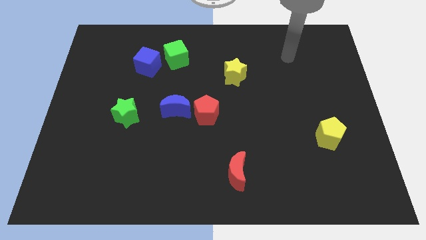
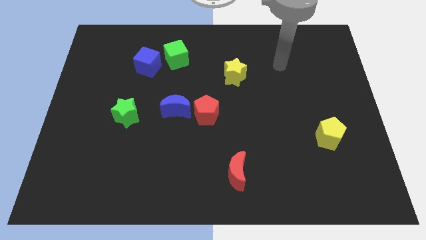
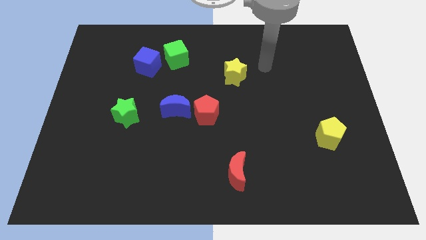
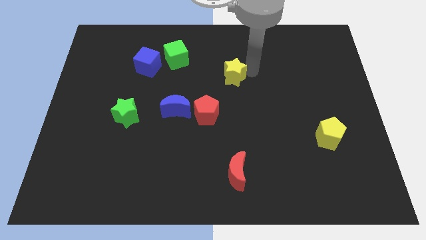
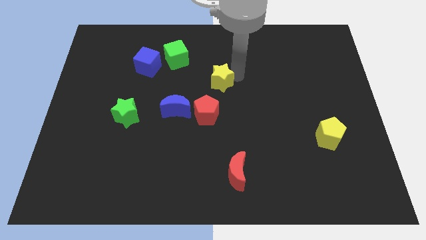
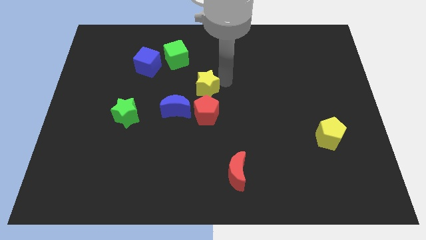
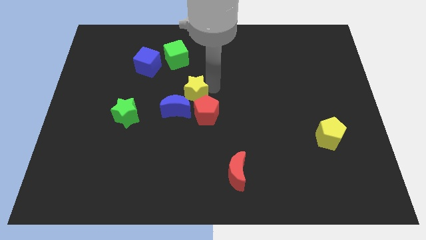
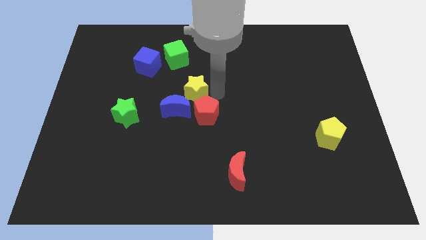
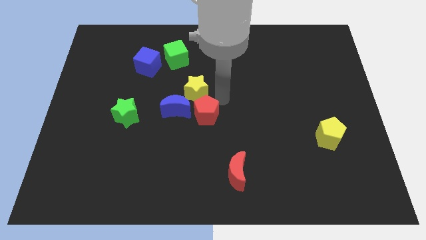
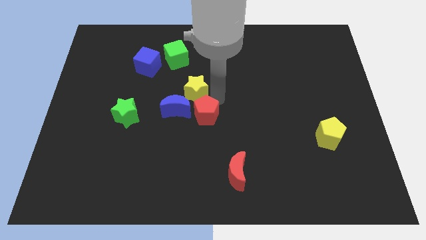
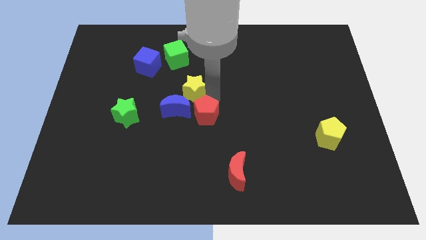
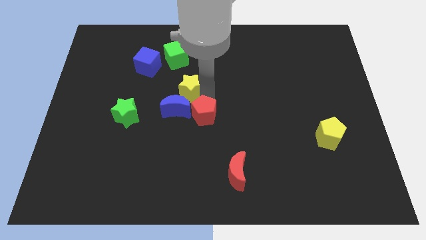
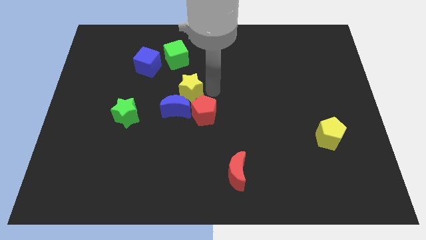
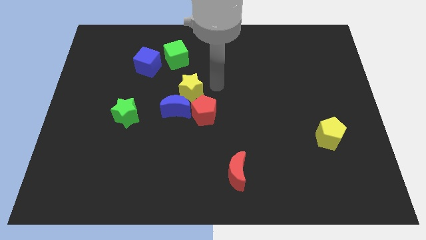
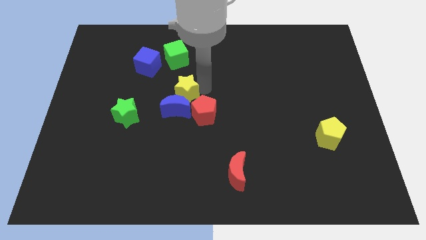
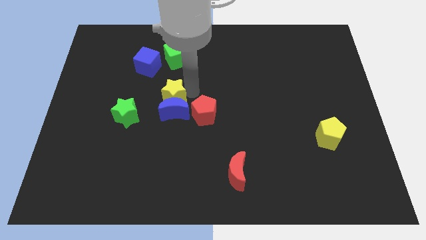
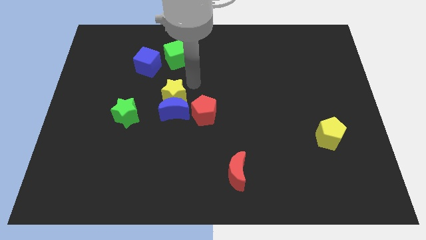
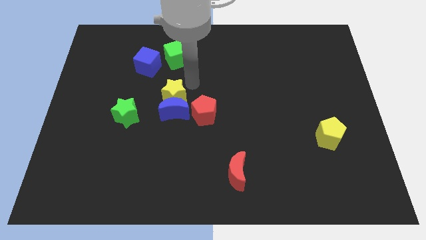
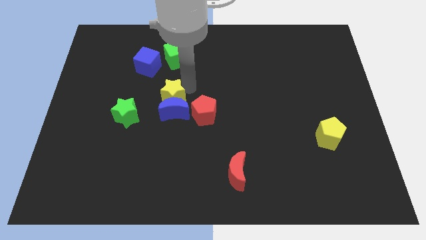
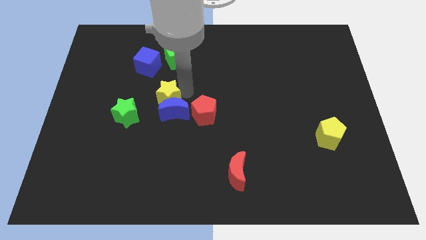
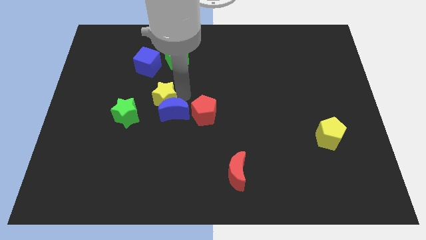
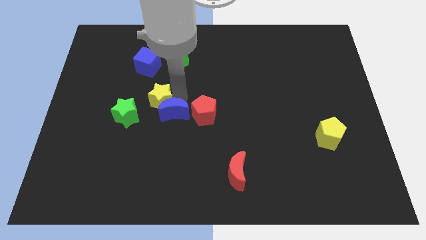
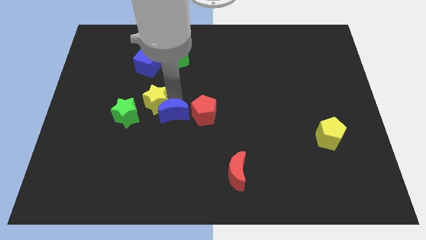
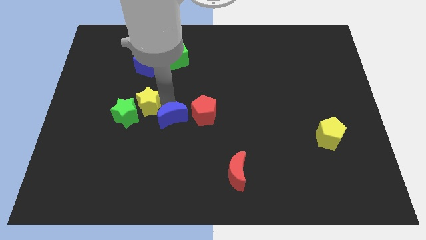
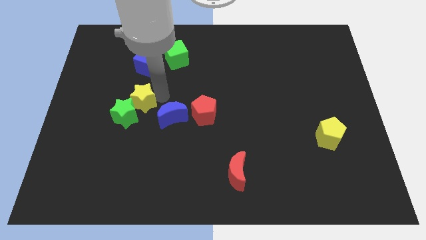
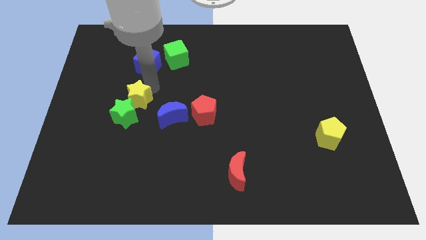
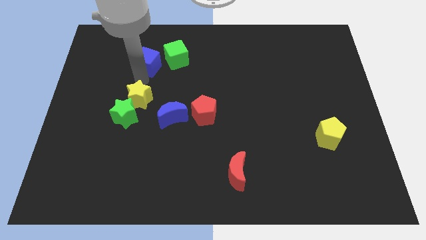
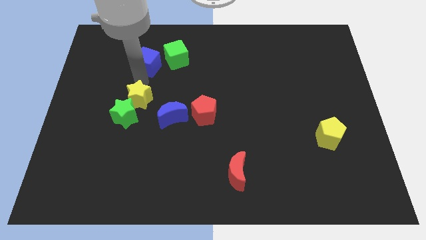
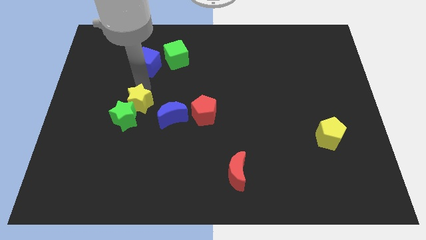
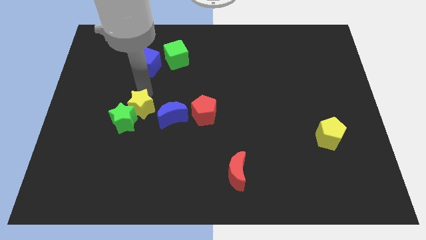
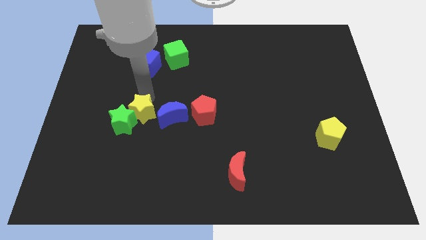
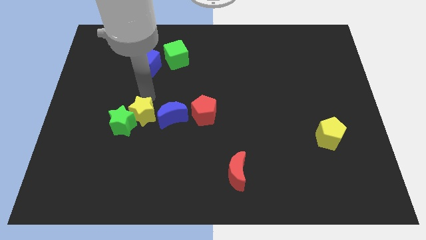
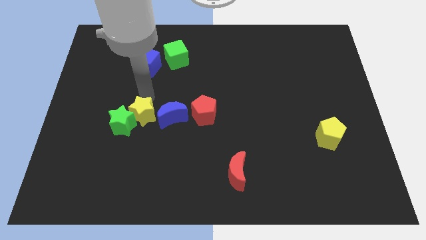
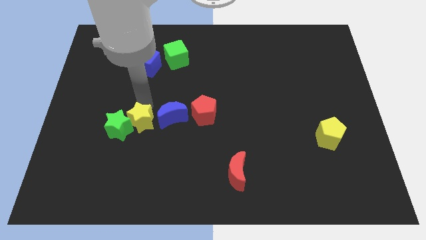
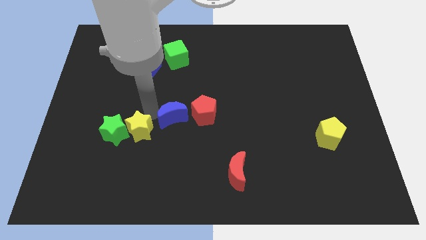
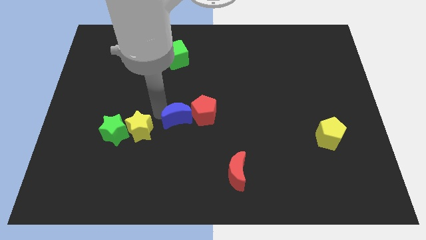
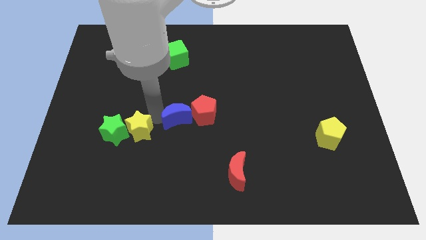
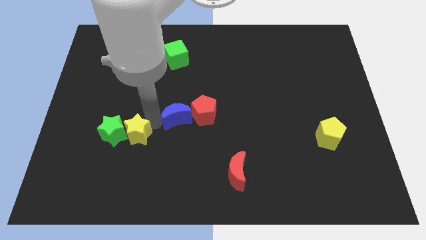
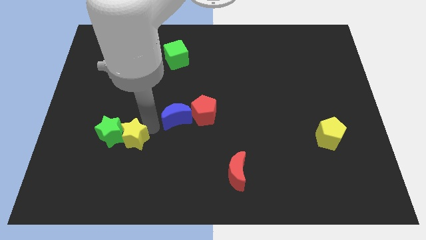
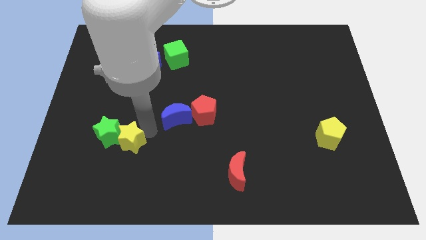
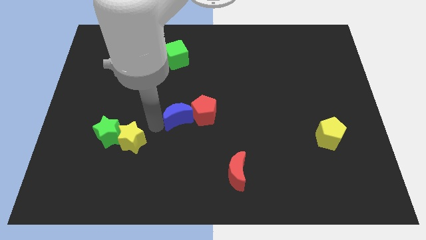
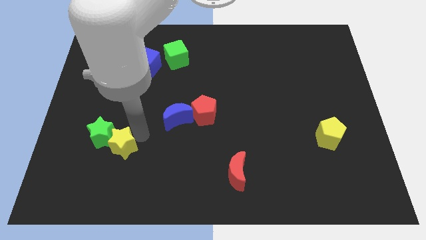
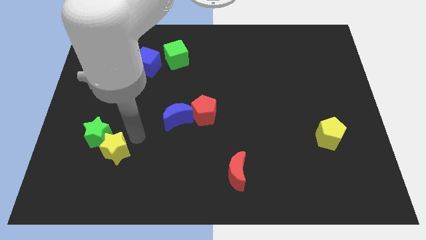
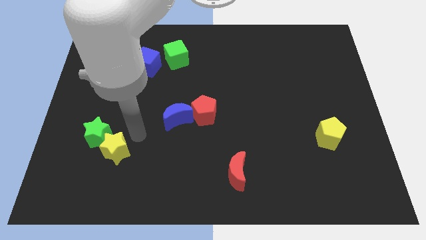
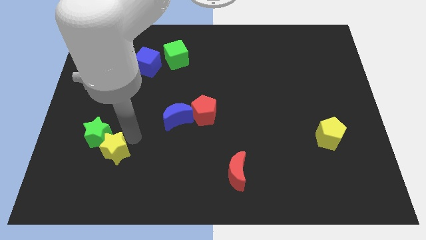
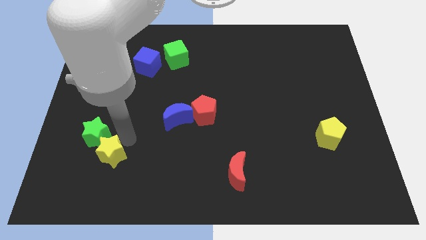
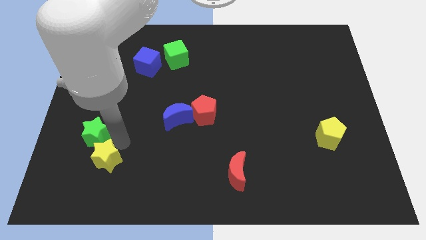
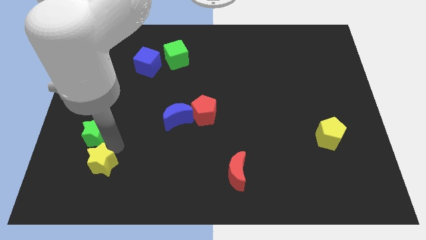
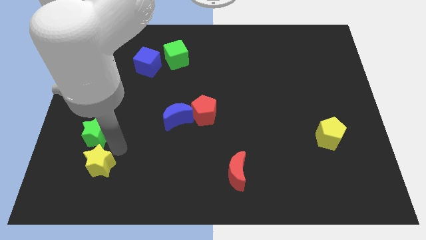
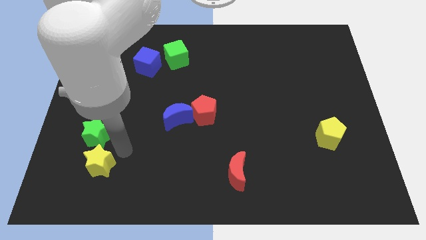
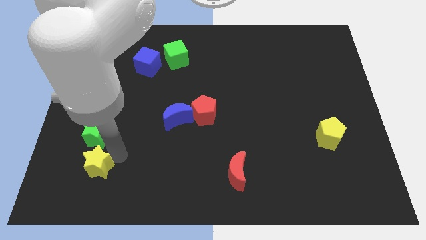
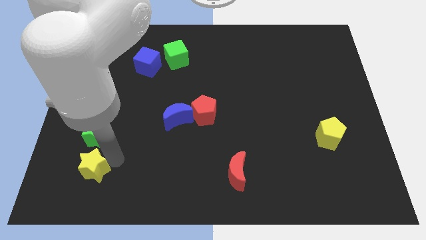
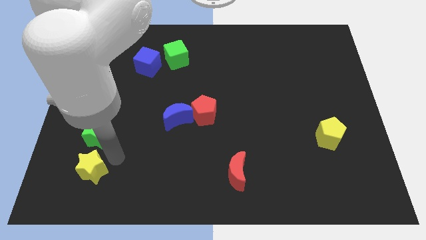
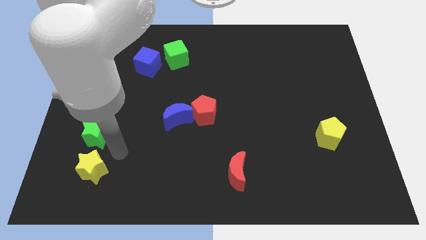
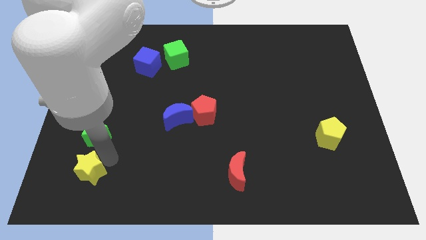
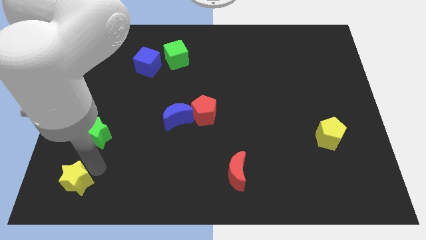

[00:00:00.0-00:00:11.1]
put the yellow star to the bottom left corner

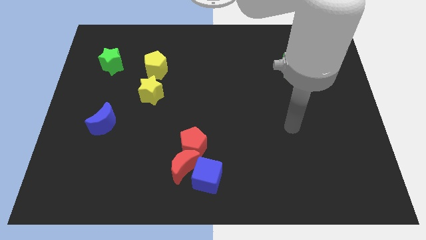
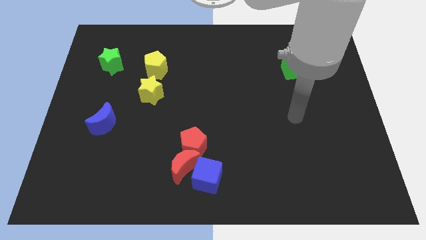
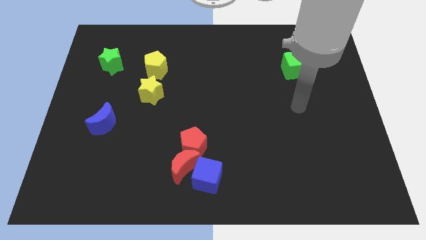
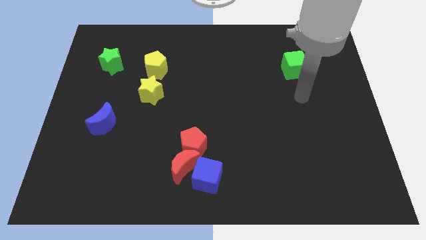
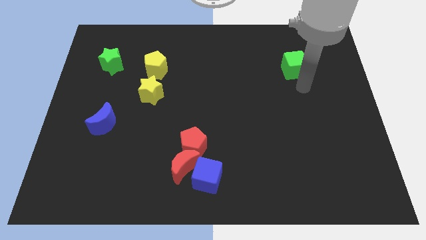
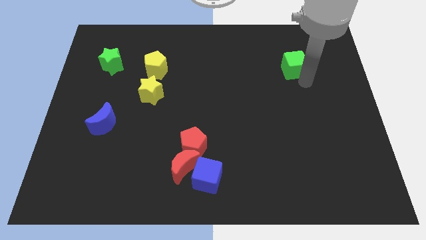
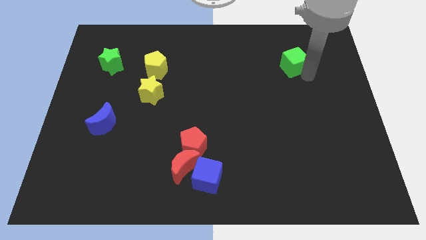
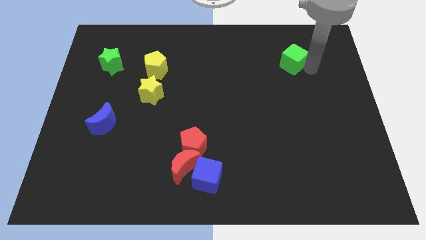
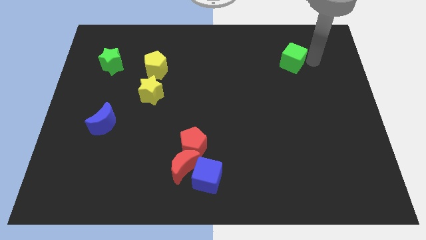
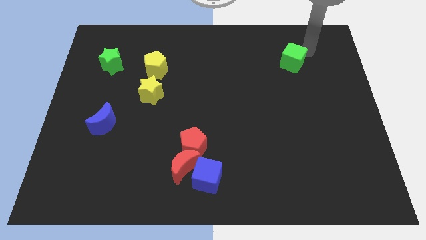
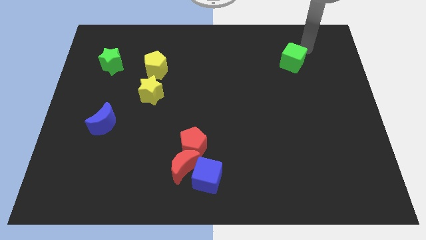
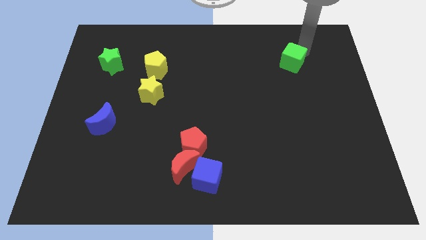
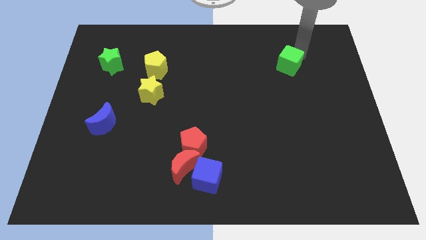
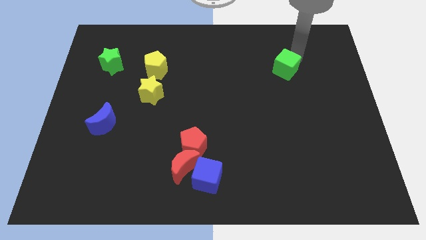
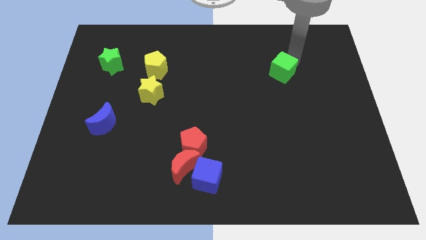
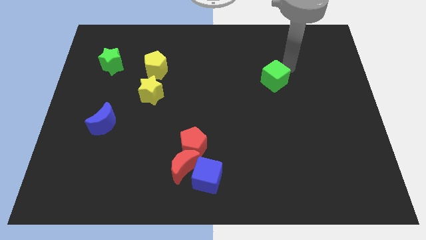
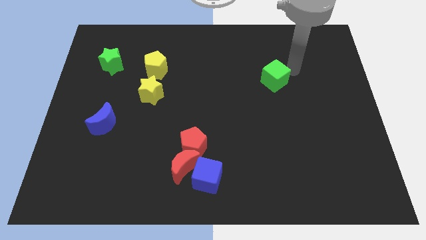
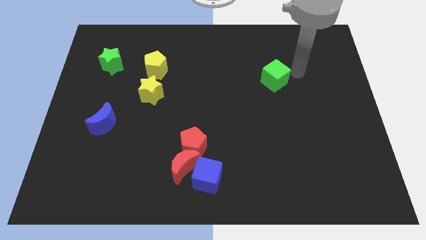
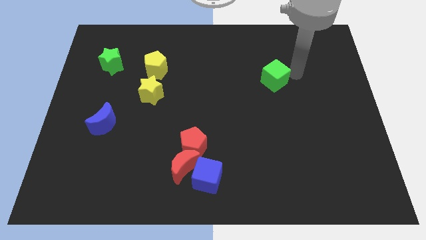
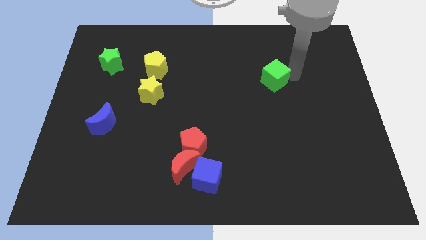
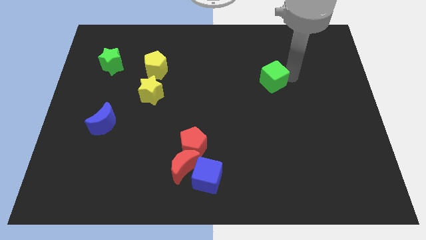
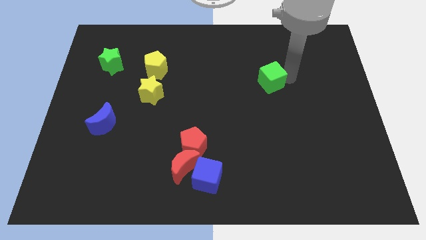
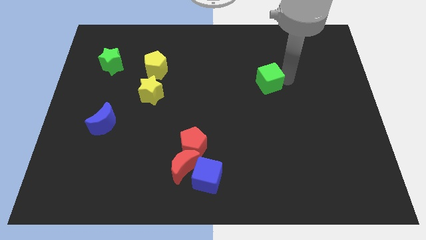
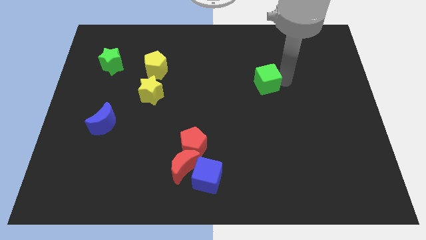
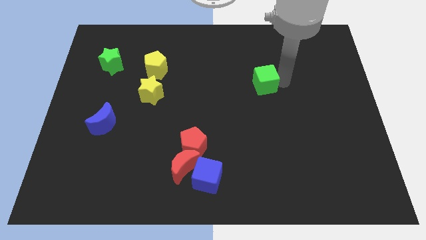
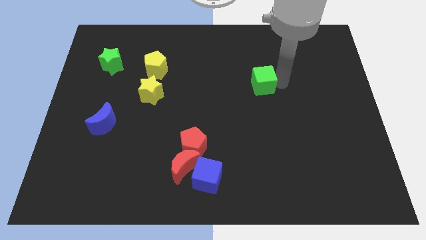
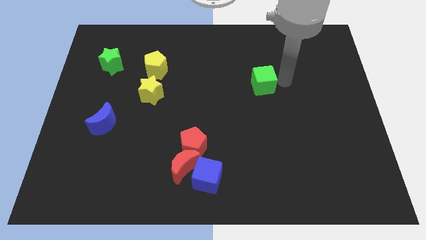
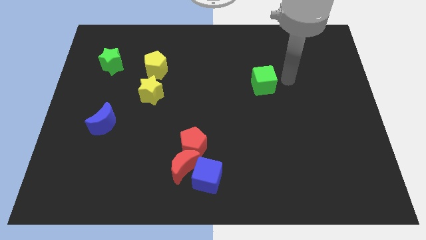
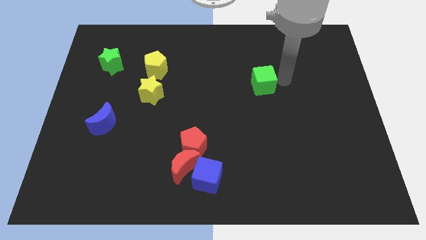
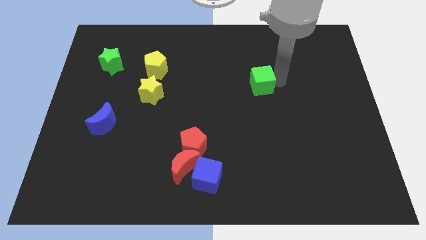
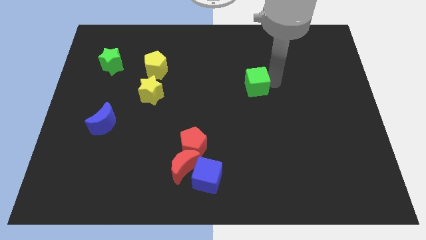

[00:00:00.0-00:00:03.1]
put the green cube to the center of the board
